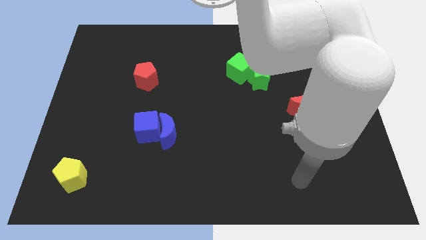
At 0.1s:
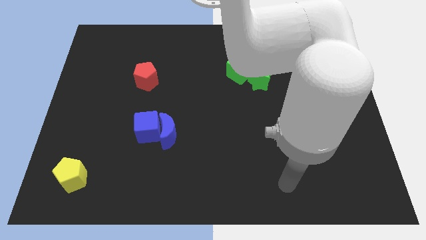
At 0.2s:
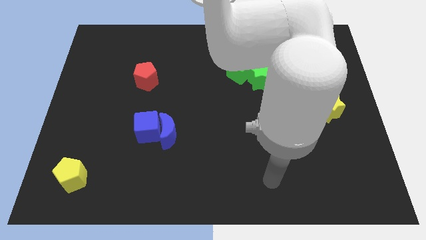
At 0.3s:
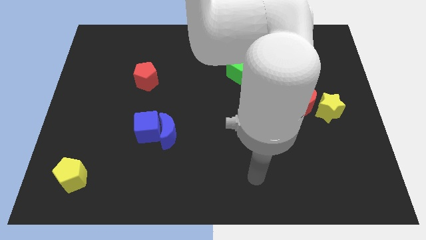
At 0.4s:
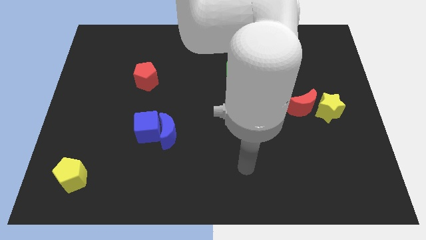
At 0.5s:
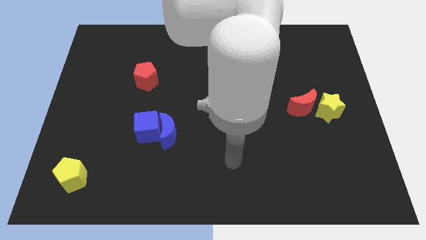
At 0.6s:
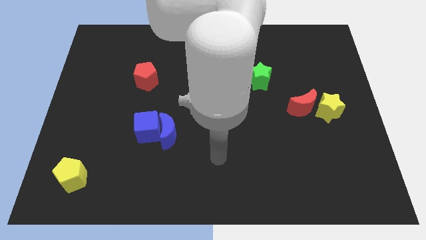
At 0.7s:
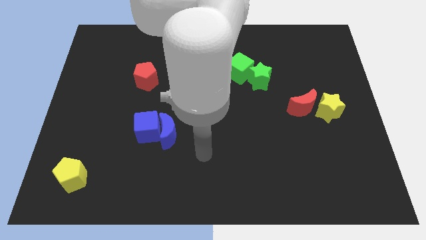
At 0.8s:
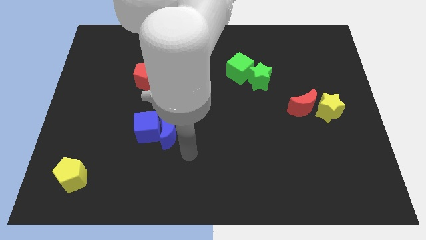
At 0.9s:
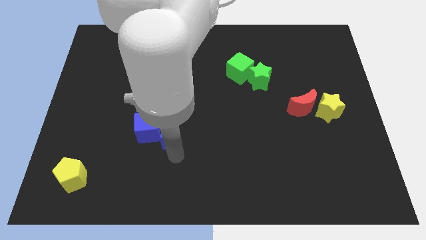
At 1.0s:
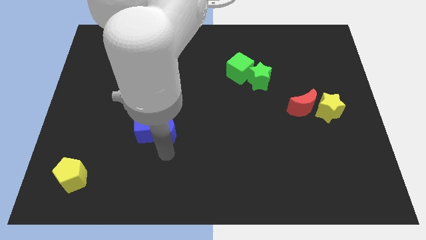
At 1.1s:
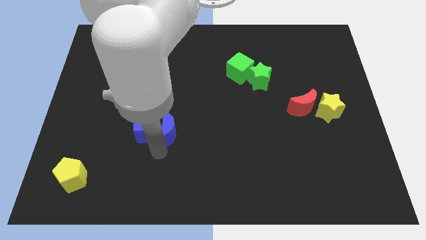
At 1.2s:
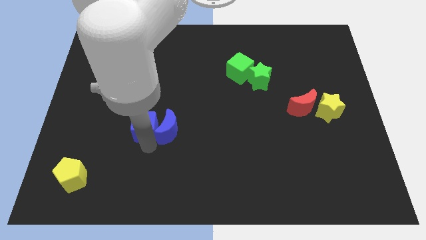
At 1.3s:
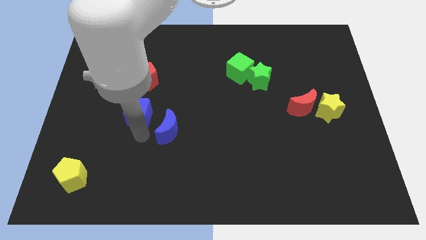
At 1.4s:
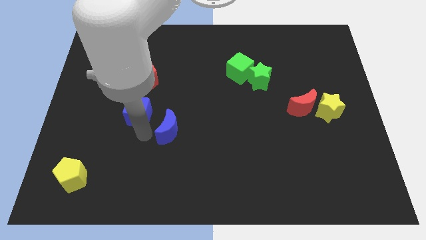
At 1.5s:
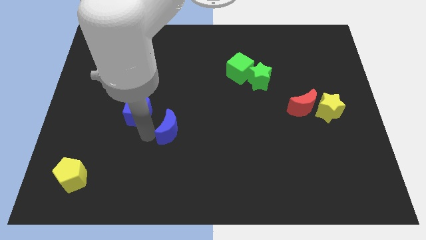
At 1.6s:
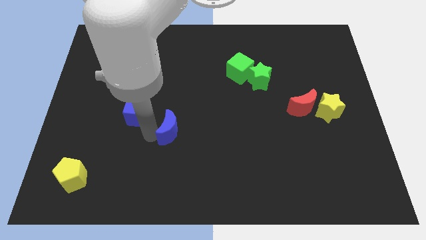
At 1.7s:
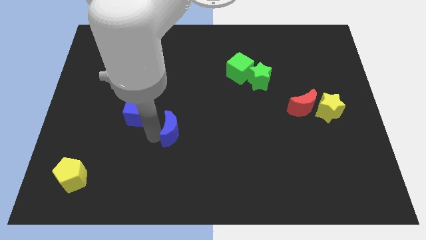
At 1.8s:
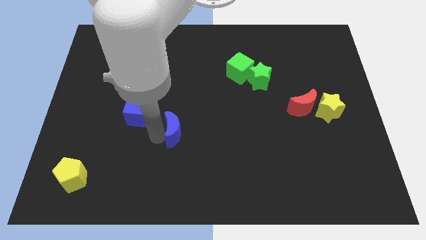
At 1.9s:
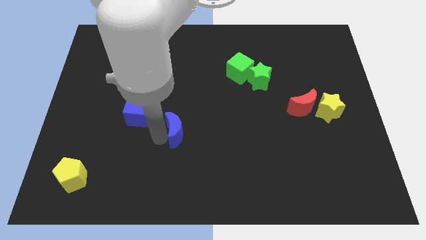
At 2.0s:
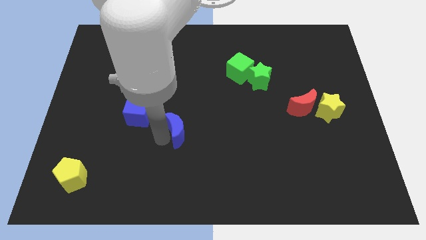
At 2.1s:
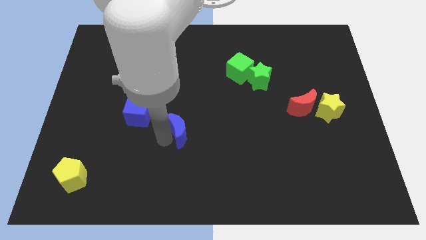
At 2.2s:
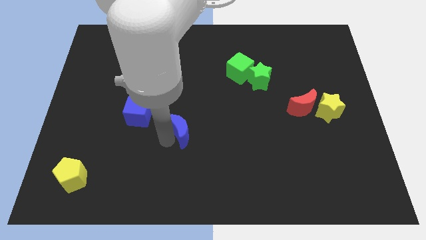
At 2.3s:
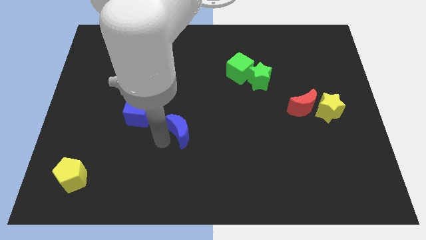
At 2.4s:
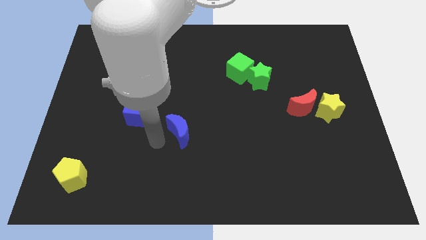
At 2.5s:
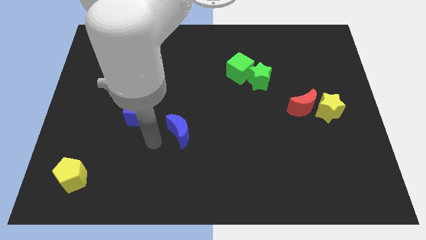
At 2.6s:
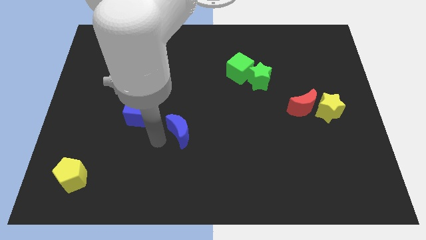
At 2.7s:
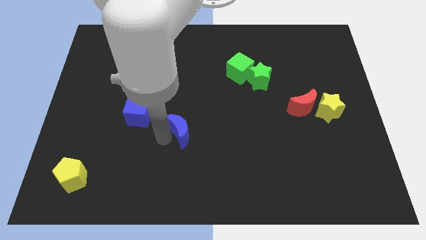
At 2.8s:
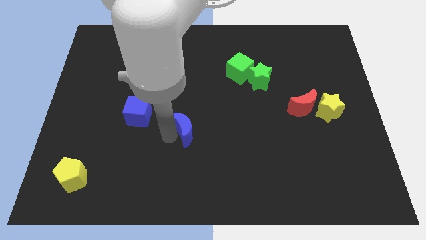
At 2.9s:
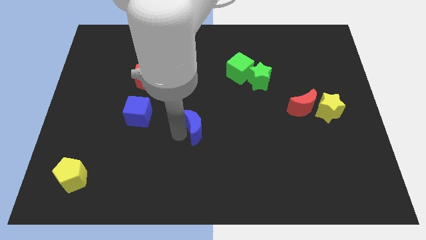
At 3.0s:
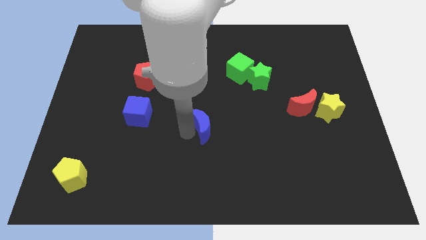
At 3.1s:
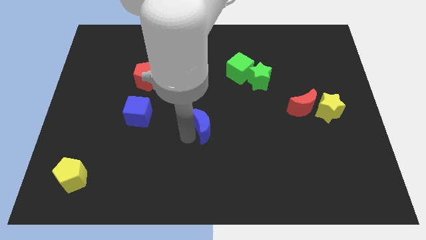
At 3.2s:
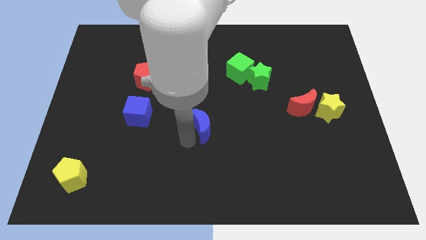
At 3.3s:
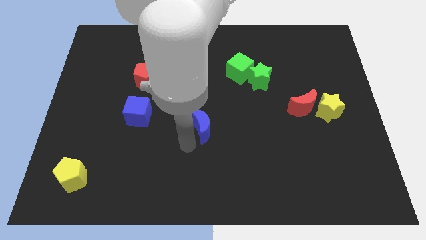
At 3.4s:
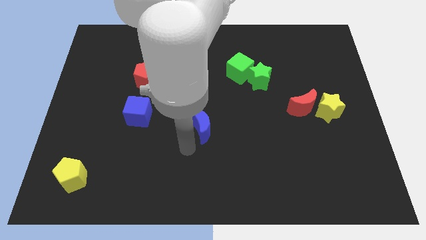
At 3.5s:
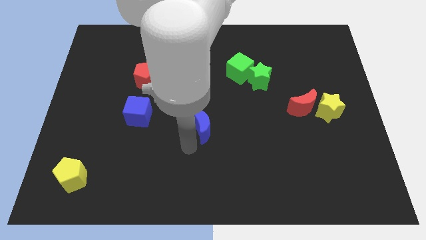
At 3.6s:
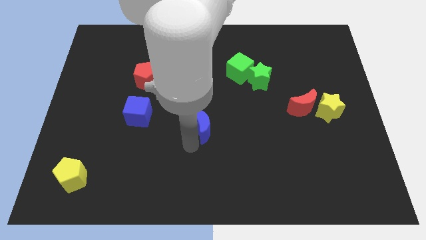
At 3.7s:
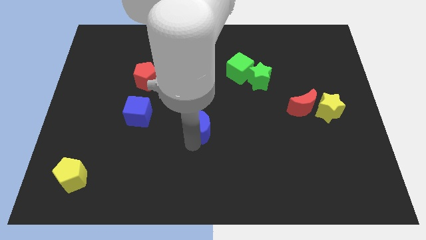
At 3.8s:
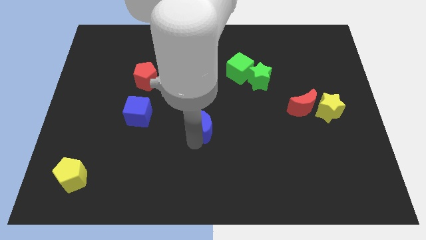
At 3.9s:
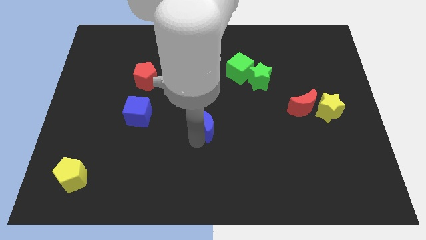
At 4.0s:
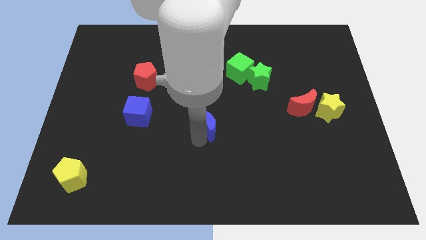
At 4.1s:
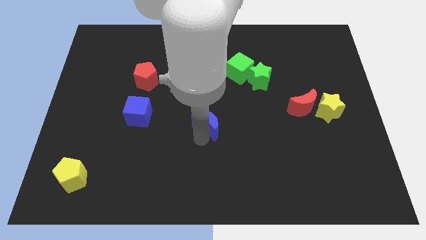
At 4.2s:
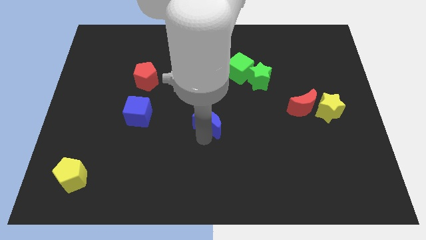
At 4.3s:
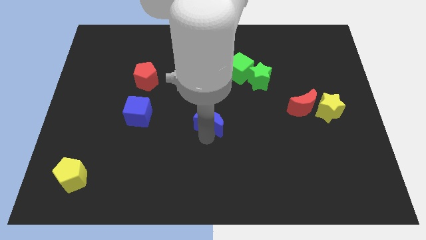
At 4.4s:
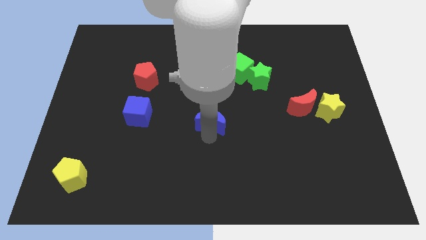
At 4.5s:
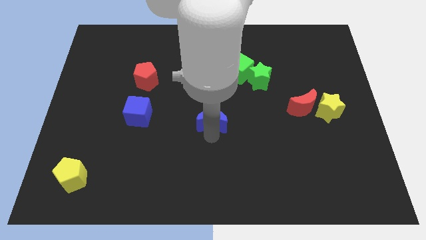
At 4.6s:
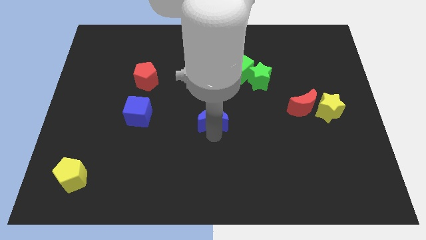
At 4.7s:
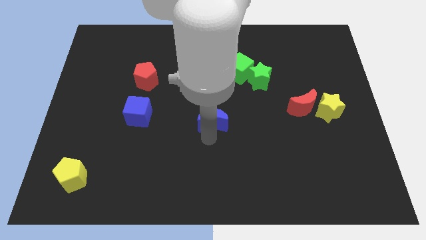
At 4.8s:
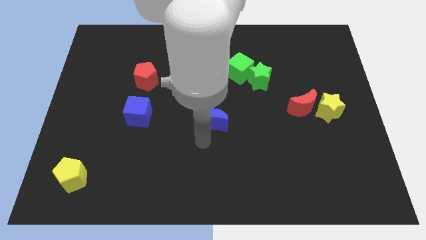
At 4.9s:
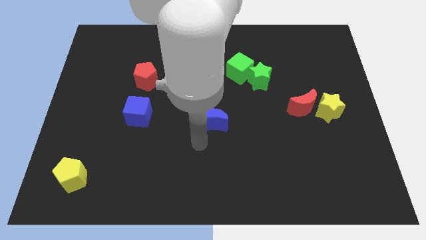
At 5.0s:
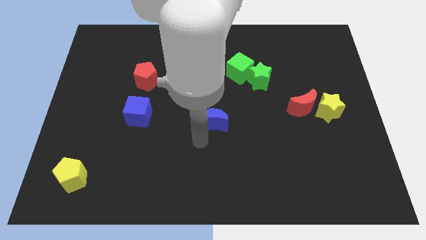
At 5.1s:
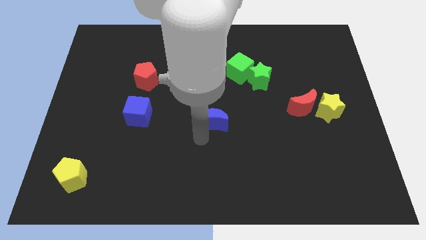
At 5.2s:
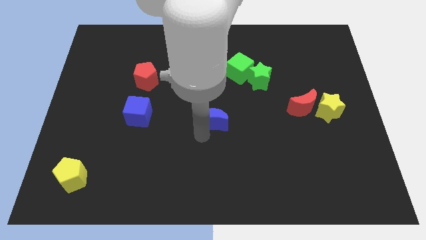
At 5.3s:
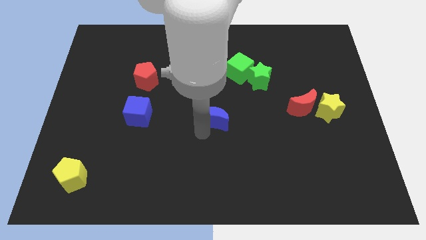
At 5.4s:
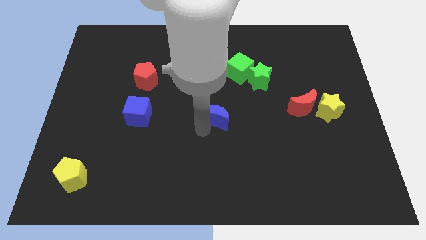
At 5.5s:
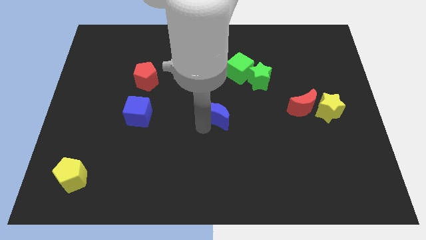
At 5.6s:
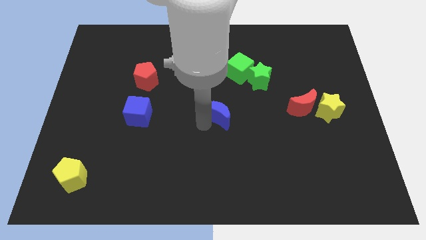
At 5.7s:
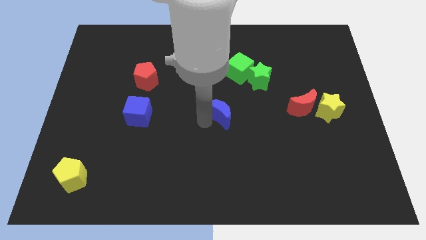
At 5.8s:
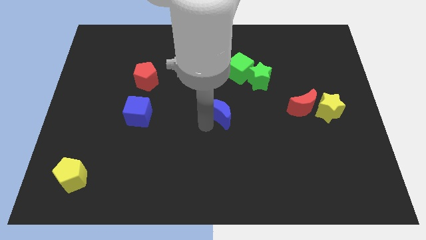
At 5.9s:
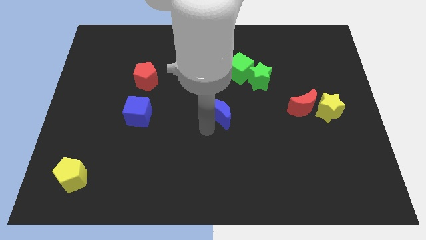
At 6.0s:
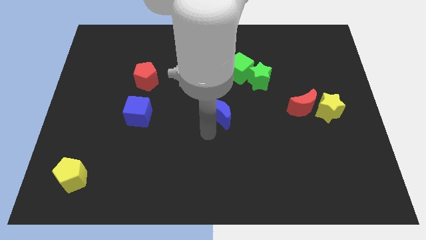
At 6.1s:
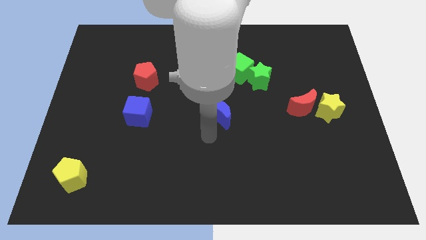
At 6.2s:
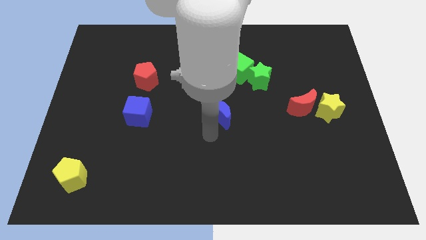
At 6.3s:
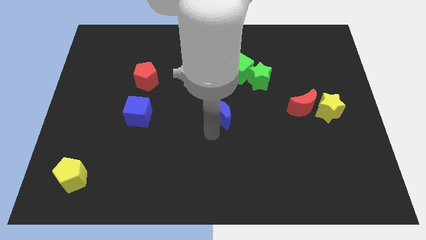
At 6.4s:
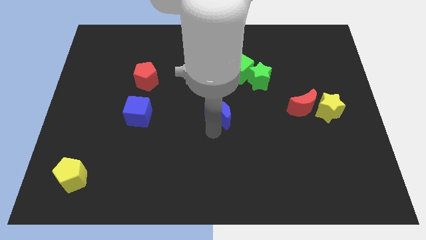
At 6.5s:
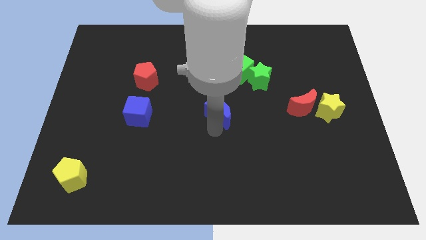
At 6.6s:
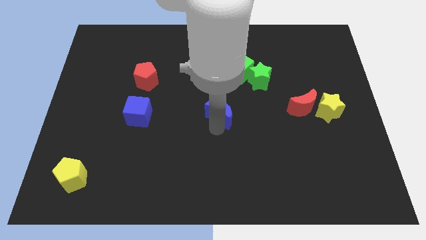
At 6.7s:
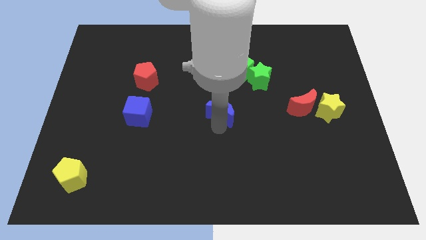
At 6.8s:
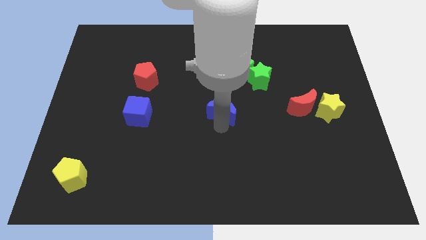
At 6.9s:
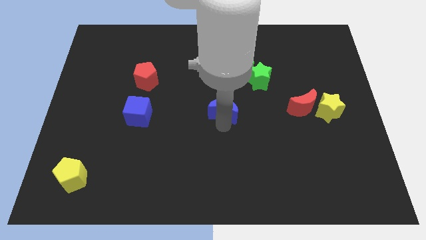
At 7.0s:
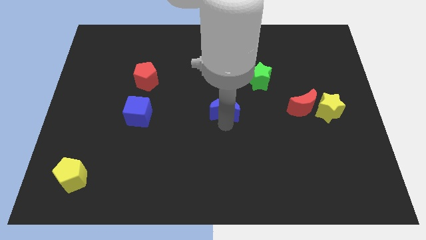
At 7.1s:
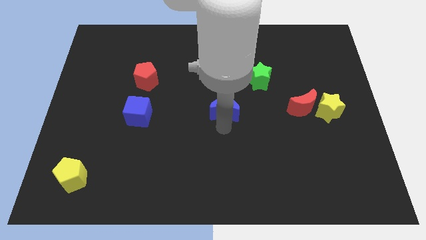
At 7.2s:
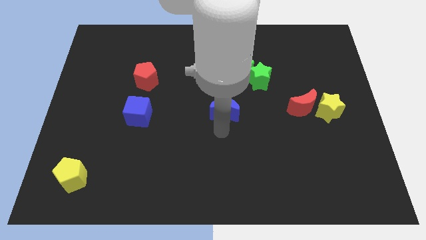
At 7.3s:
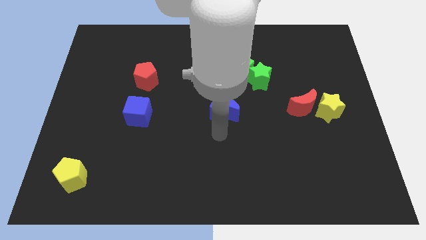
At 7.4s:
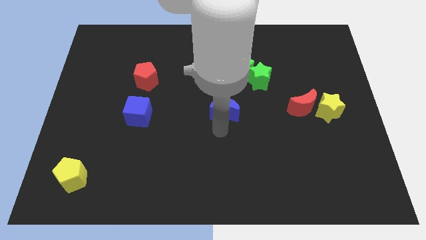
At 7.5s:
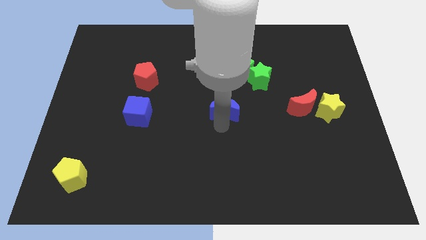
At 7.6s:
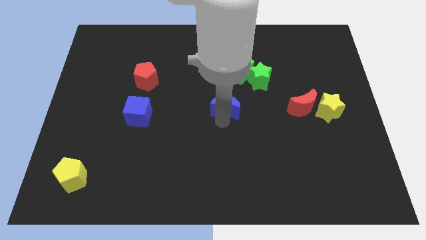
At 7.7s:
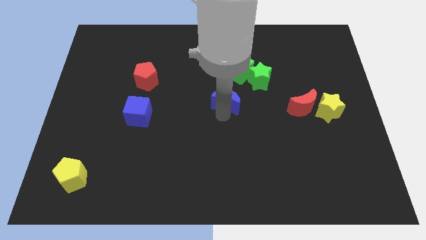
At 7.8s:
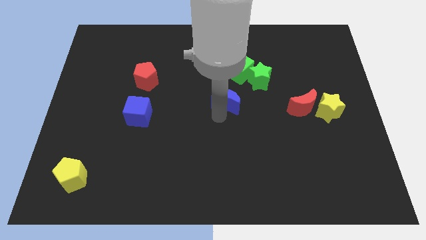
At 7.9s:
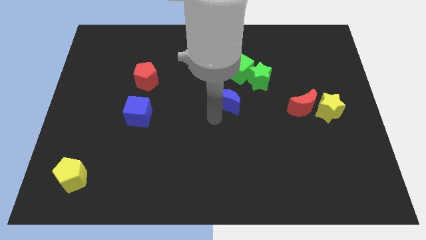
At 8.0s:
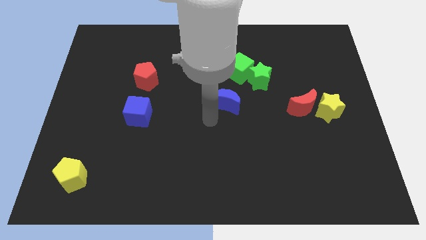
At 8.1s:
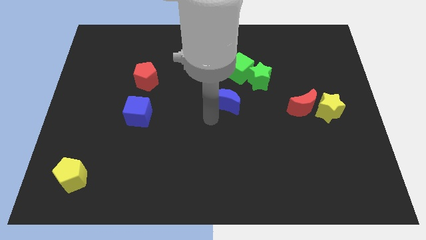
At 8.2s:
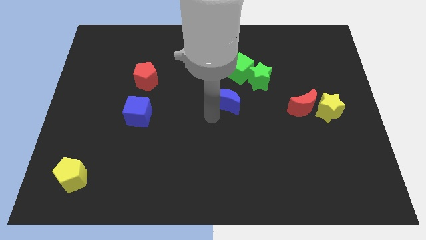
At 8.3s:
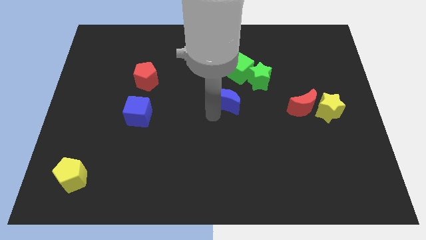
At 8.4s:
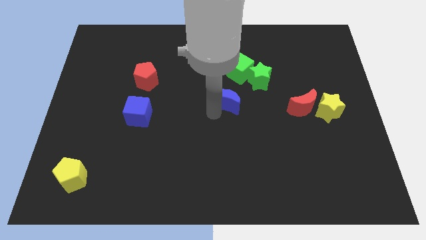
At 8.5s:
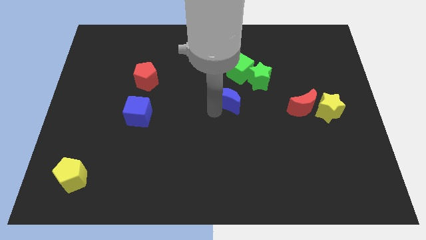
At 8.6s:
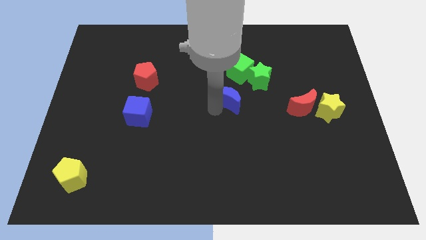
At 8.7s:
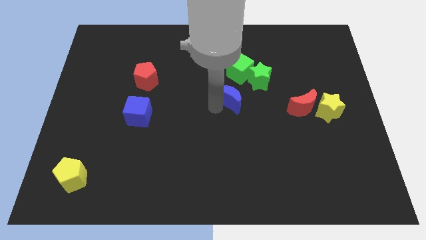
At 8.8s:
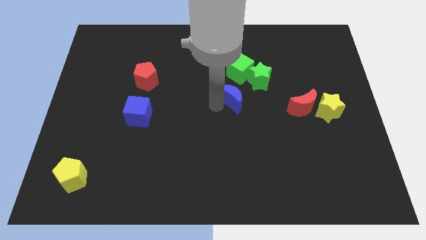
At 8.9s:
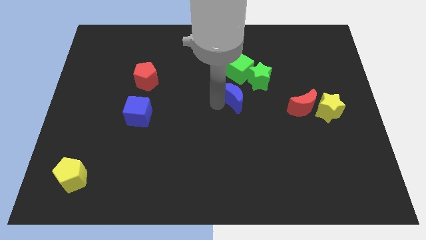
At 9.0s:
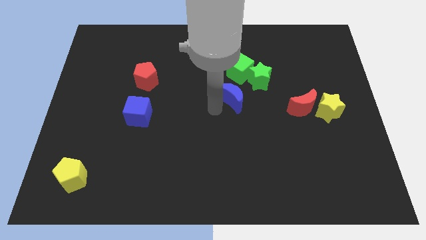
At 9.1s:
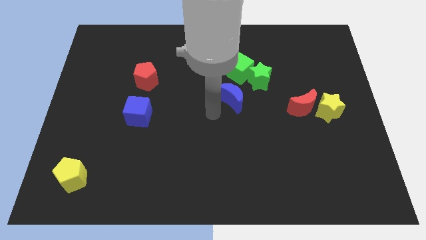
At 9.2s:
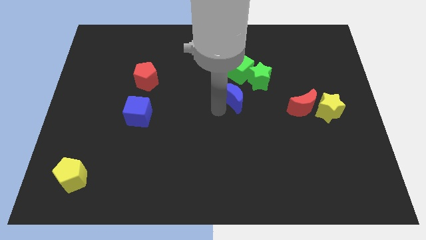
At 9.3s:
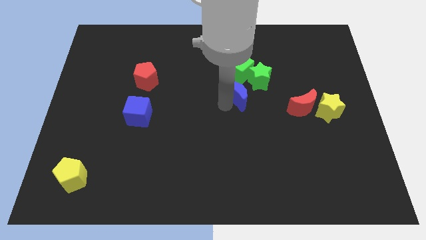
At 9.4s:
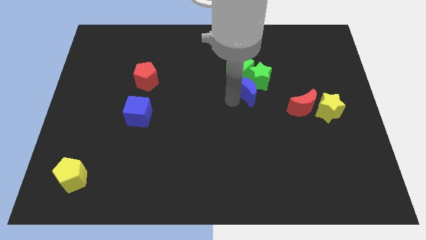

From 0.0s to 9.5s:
push the blue moon close to the green star
